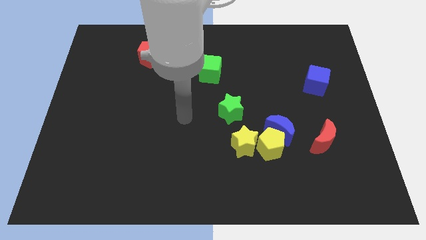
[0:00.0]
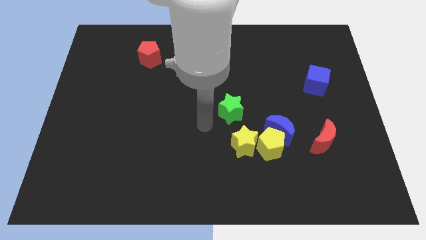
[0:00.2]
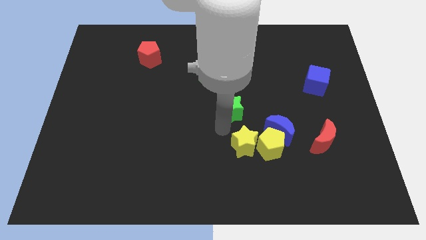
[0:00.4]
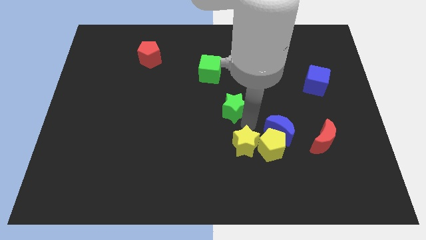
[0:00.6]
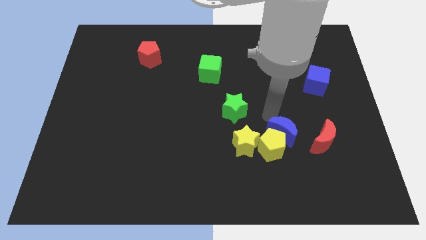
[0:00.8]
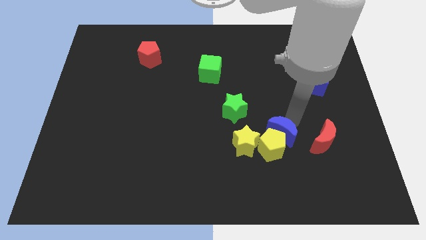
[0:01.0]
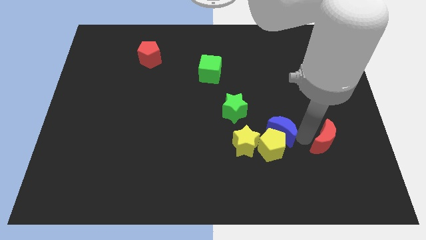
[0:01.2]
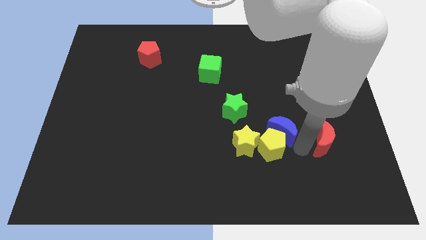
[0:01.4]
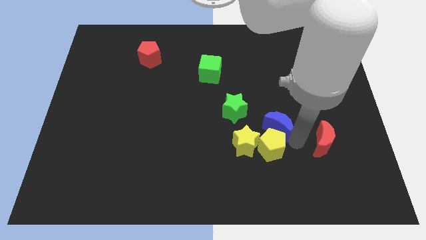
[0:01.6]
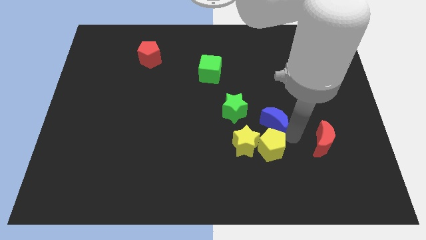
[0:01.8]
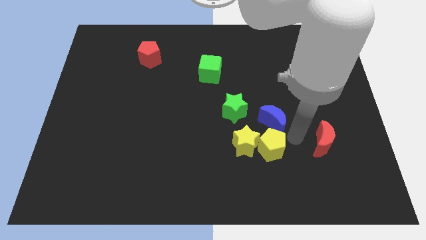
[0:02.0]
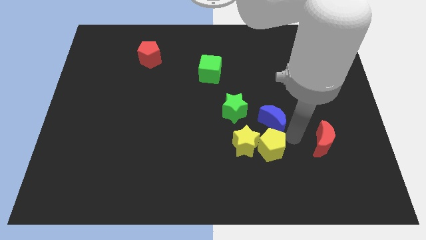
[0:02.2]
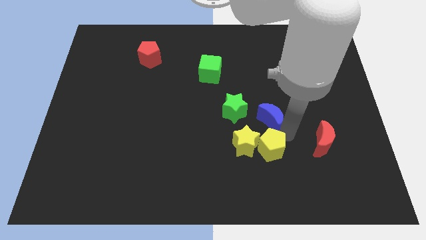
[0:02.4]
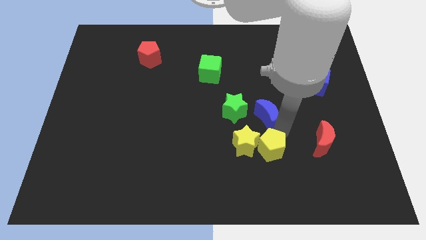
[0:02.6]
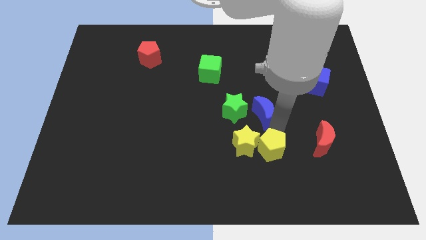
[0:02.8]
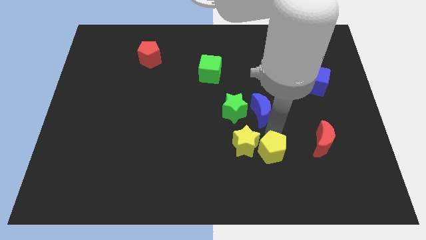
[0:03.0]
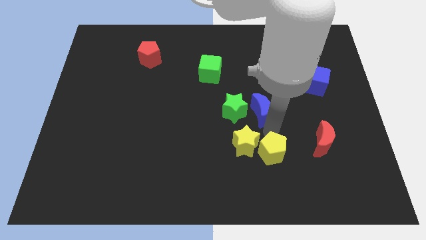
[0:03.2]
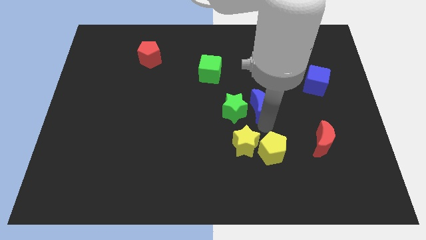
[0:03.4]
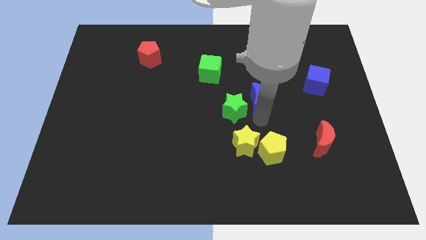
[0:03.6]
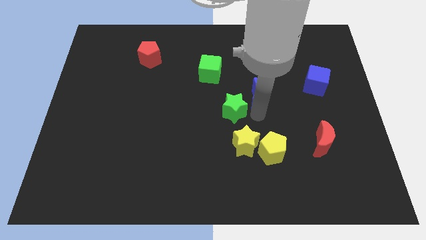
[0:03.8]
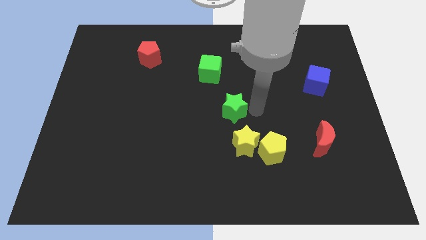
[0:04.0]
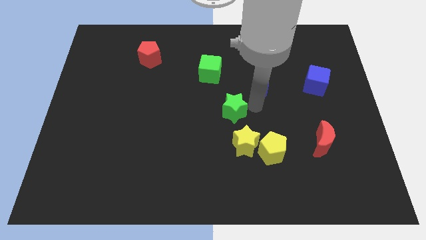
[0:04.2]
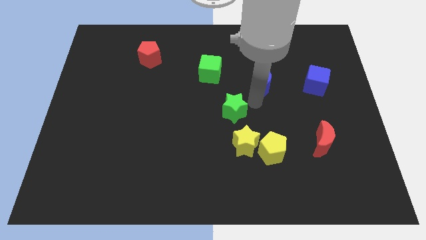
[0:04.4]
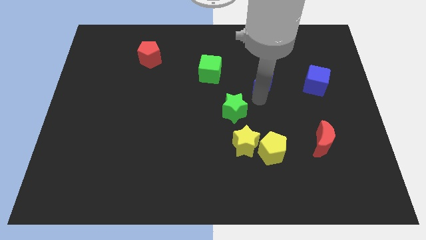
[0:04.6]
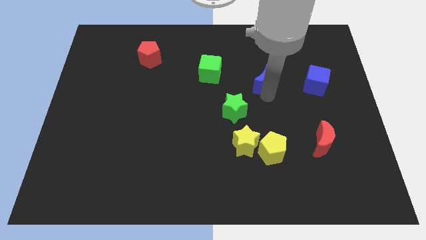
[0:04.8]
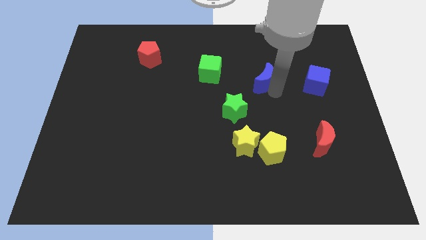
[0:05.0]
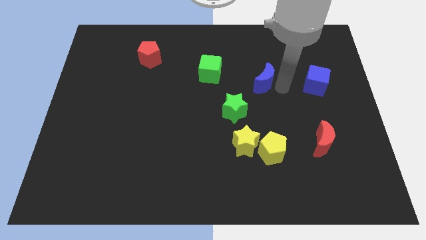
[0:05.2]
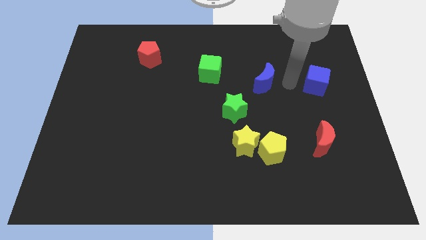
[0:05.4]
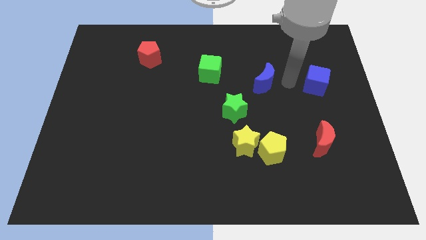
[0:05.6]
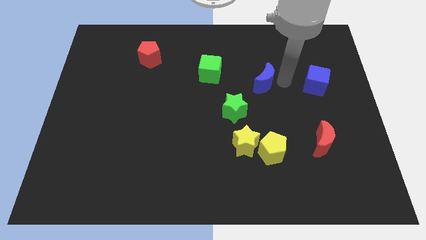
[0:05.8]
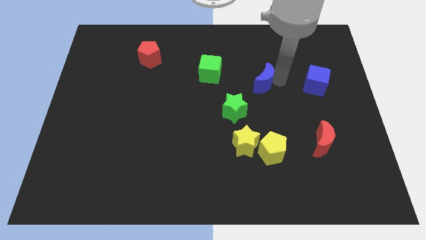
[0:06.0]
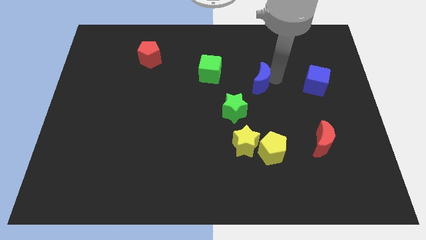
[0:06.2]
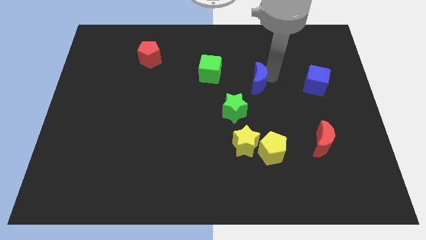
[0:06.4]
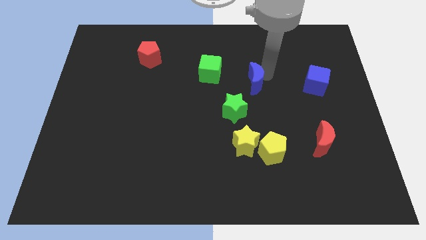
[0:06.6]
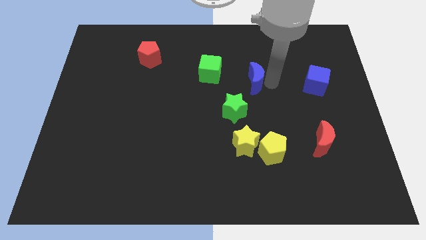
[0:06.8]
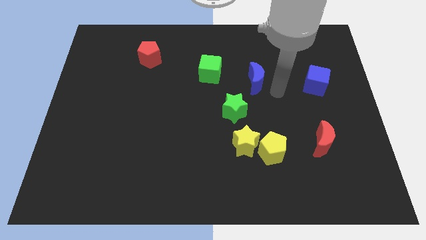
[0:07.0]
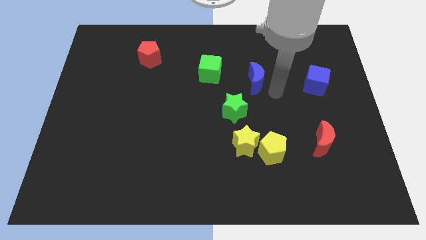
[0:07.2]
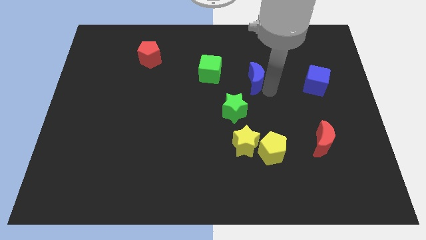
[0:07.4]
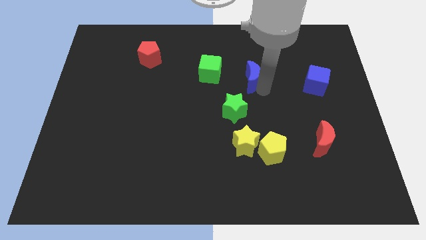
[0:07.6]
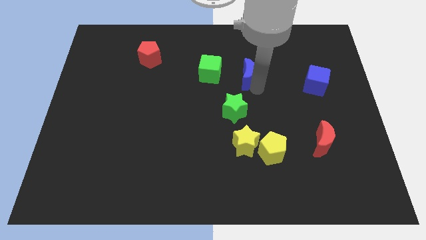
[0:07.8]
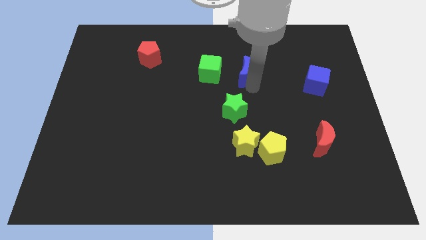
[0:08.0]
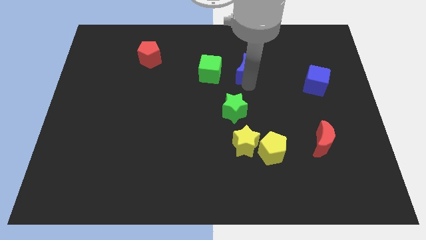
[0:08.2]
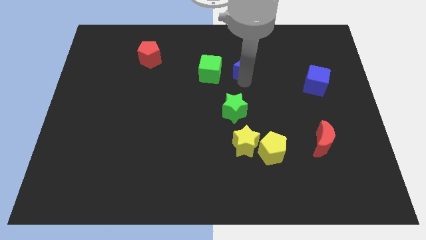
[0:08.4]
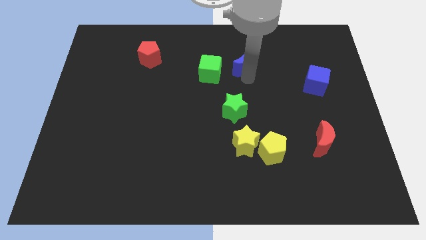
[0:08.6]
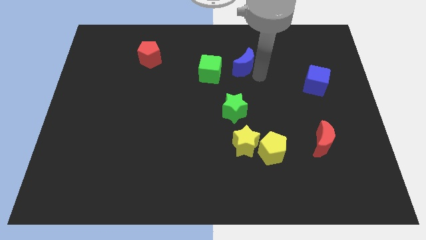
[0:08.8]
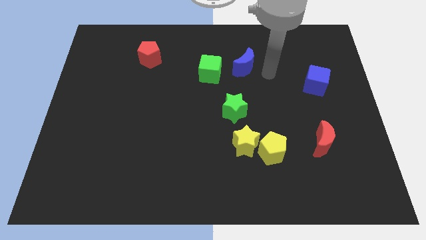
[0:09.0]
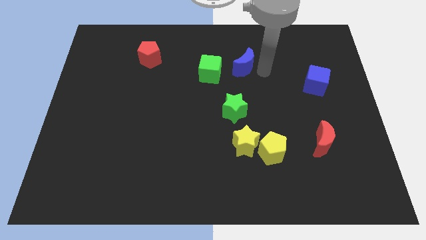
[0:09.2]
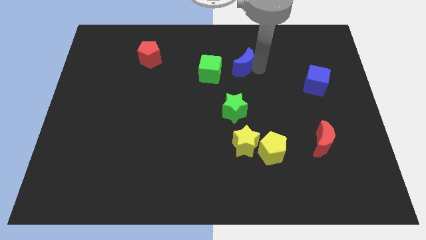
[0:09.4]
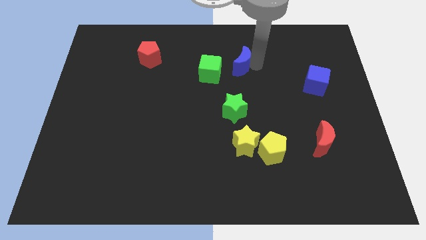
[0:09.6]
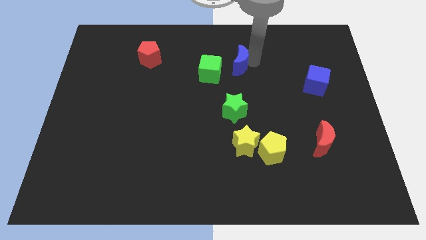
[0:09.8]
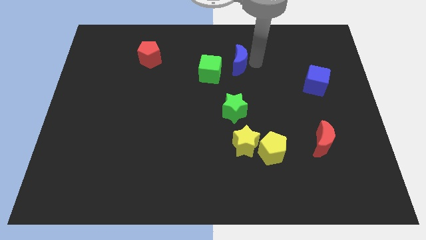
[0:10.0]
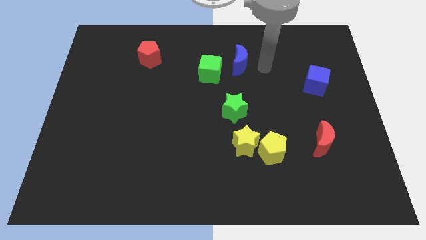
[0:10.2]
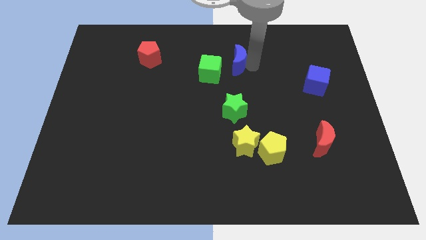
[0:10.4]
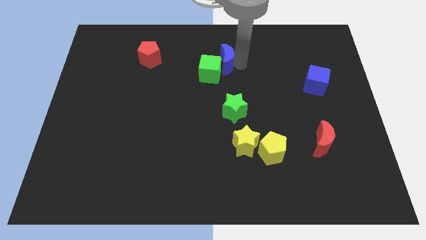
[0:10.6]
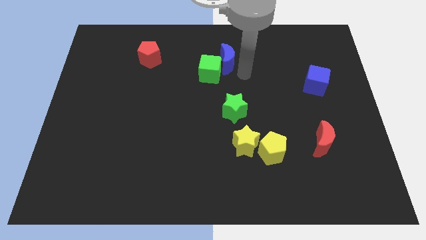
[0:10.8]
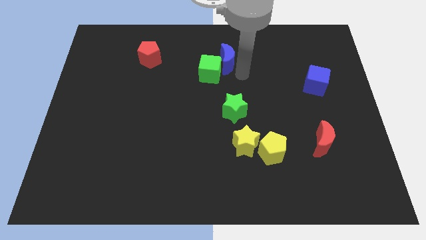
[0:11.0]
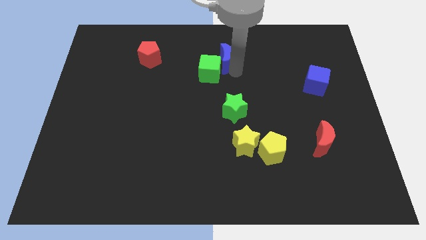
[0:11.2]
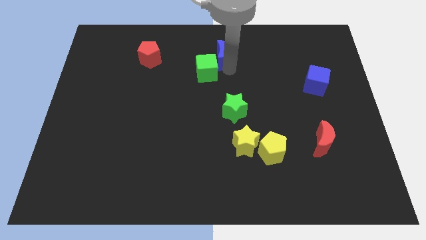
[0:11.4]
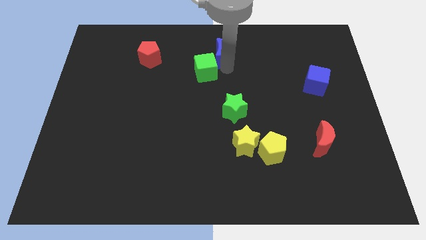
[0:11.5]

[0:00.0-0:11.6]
push the blue moon to the top side
